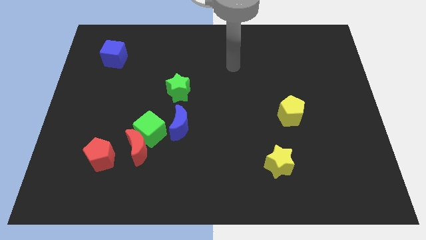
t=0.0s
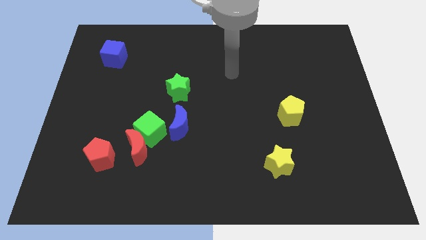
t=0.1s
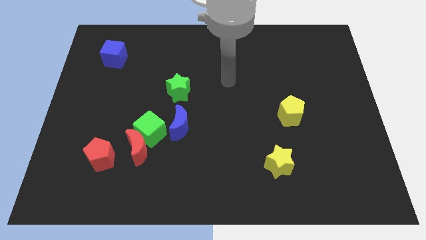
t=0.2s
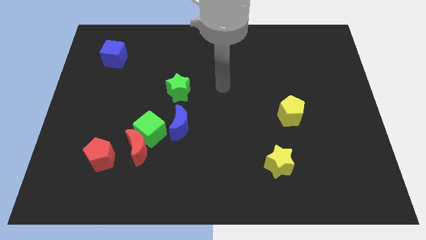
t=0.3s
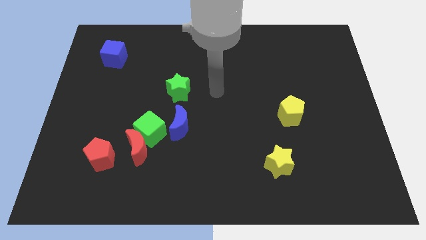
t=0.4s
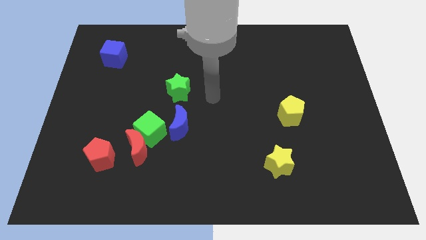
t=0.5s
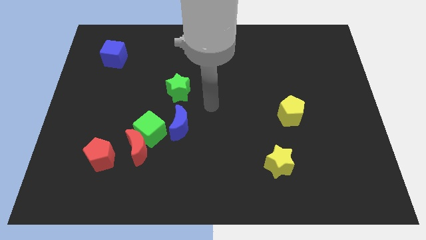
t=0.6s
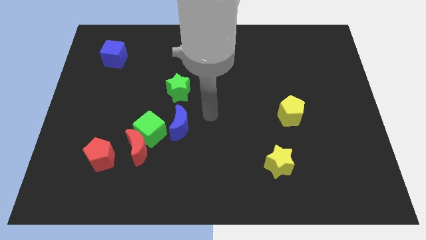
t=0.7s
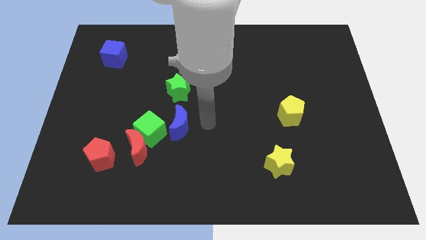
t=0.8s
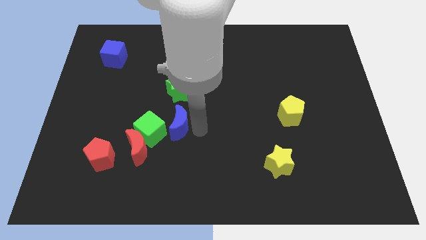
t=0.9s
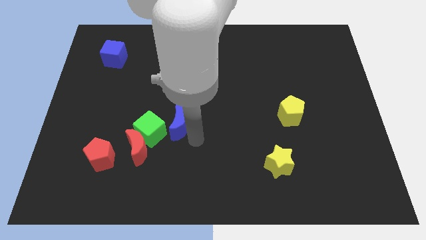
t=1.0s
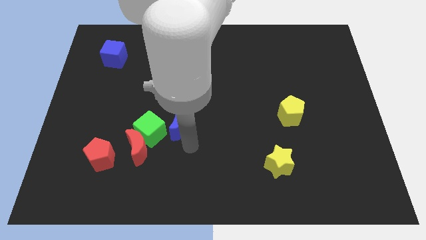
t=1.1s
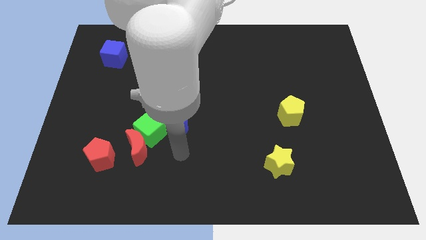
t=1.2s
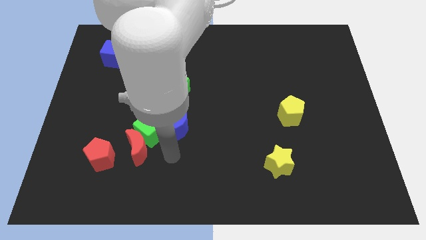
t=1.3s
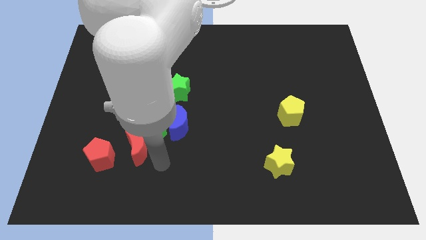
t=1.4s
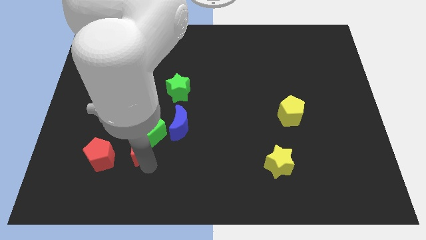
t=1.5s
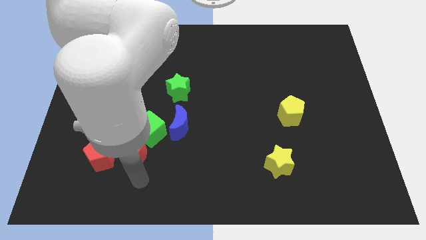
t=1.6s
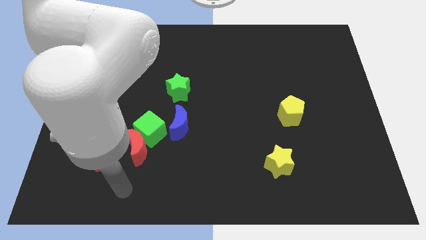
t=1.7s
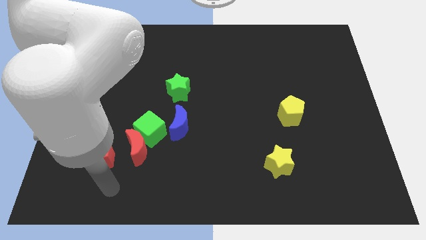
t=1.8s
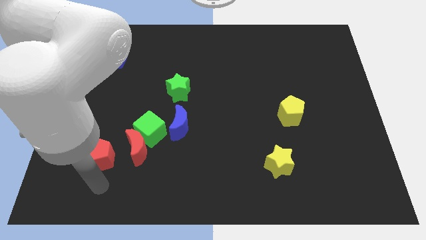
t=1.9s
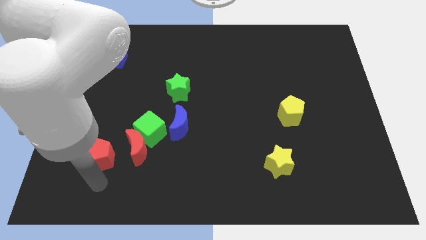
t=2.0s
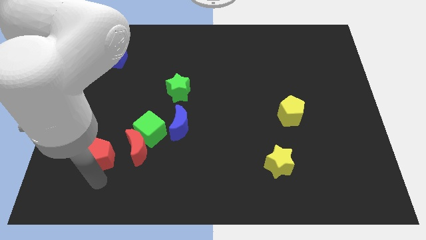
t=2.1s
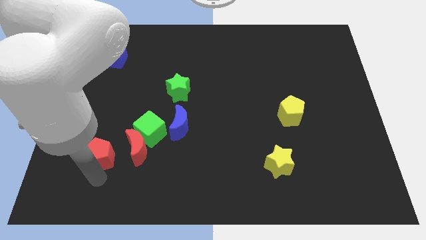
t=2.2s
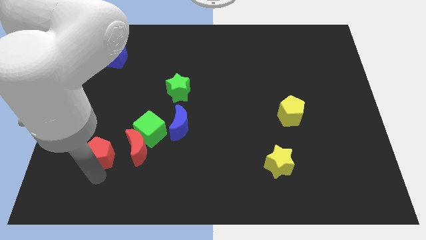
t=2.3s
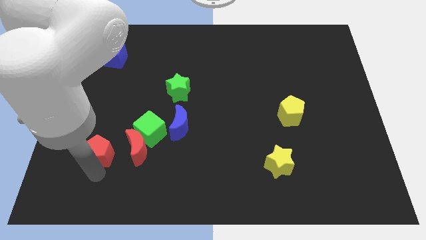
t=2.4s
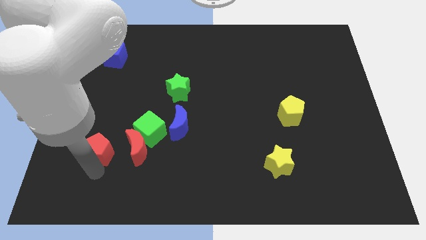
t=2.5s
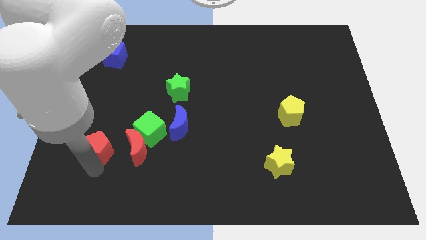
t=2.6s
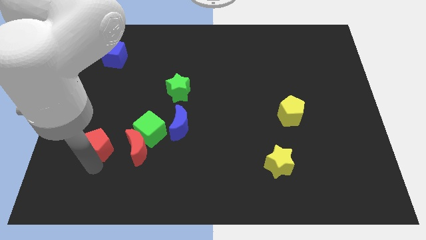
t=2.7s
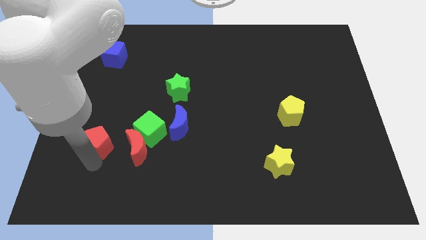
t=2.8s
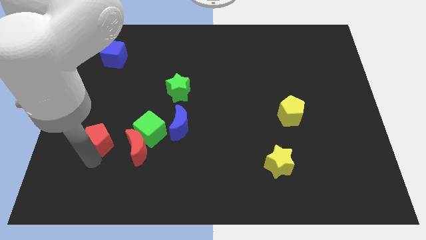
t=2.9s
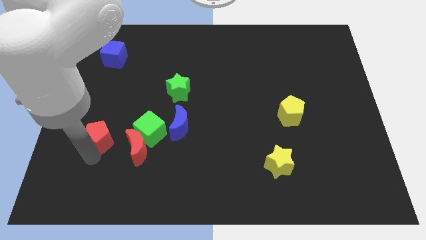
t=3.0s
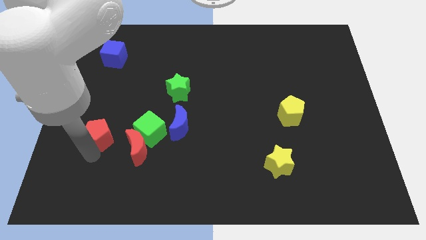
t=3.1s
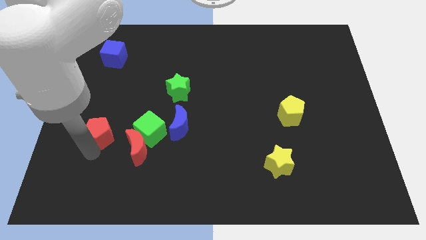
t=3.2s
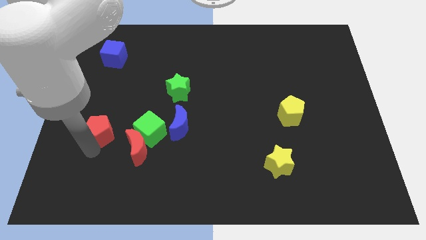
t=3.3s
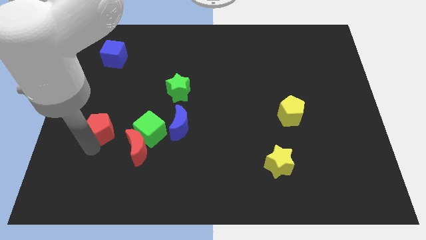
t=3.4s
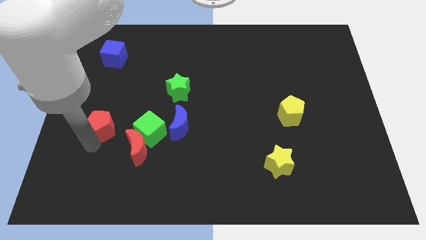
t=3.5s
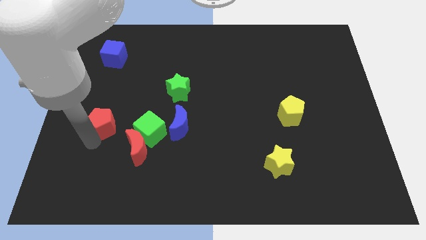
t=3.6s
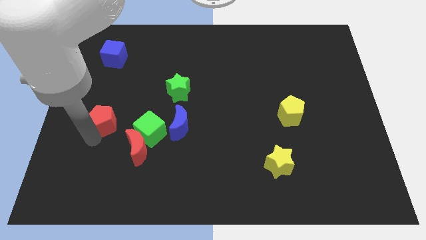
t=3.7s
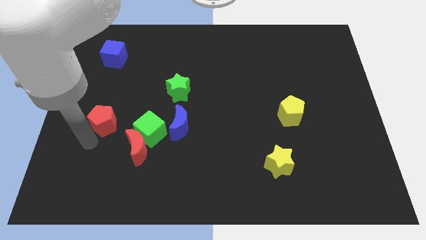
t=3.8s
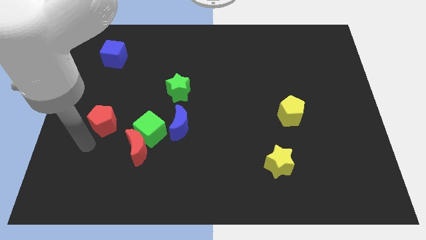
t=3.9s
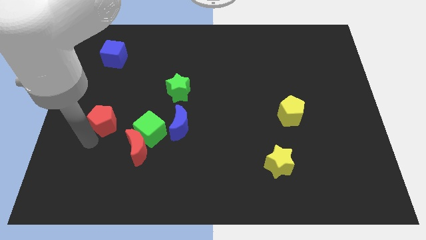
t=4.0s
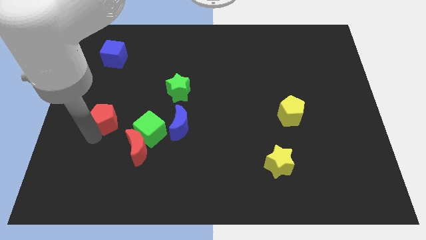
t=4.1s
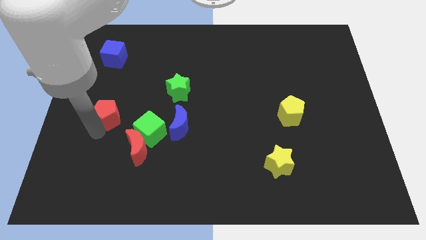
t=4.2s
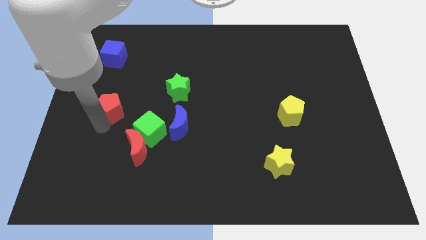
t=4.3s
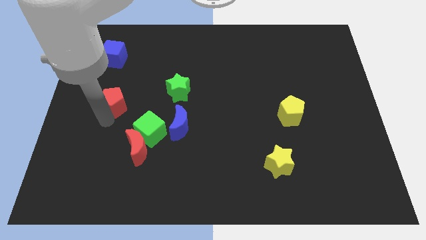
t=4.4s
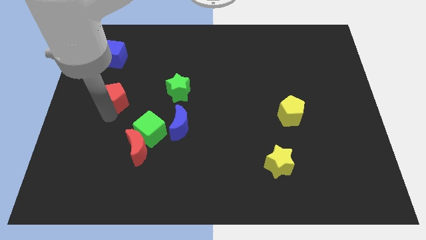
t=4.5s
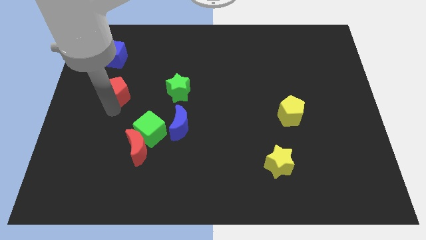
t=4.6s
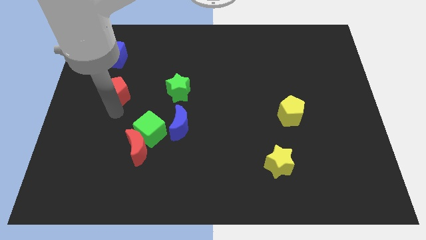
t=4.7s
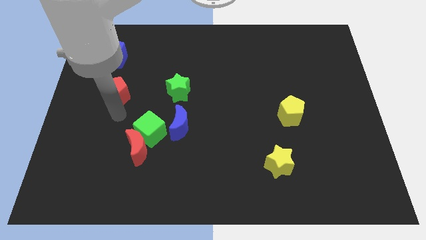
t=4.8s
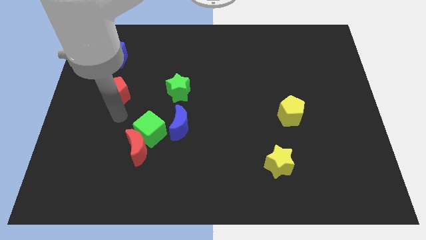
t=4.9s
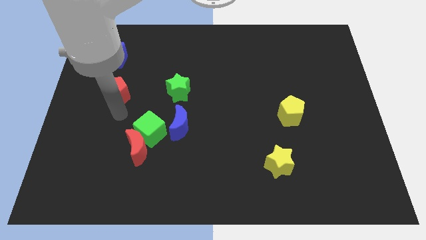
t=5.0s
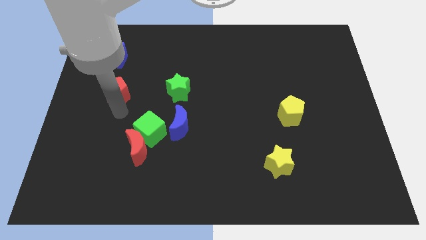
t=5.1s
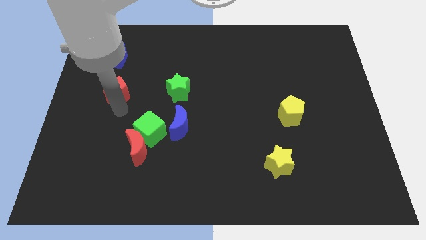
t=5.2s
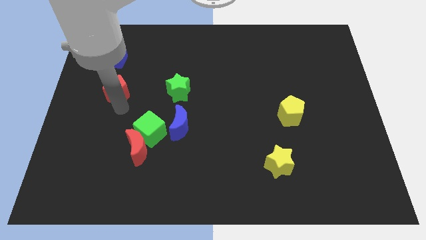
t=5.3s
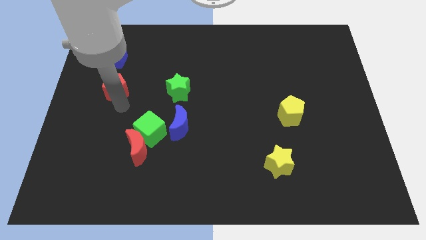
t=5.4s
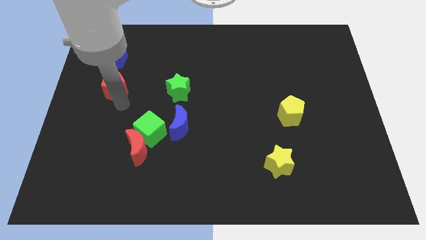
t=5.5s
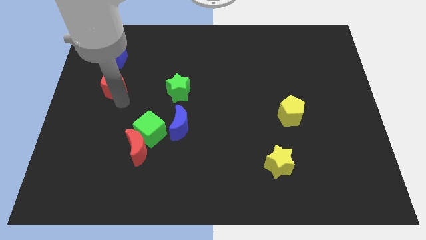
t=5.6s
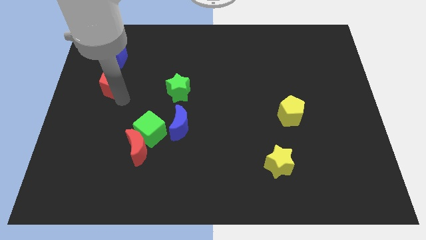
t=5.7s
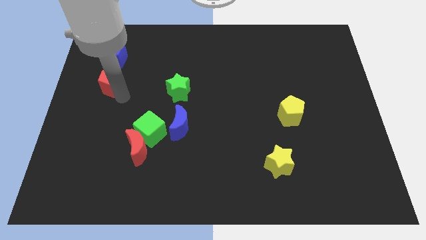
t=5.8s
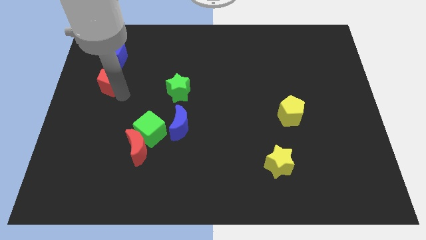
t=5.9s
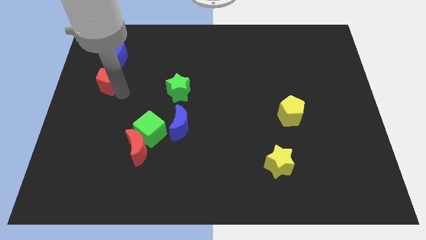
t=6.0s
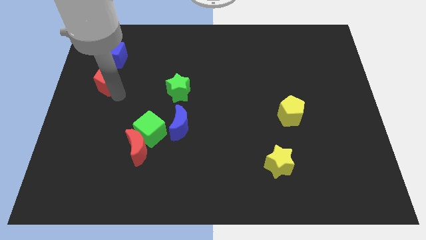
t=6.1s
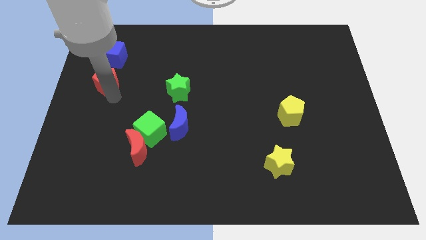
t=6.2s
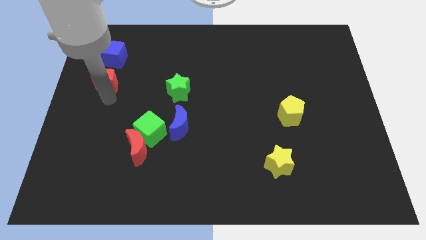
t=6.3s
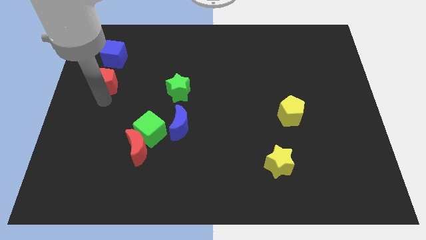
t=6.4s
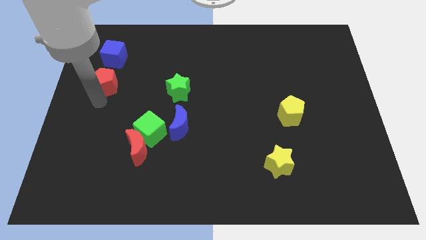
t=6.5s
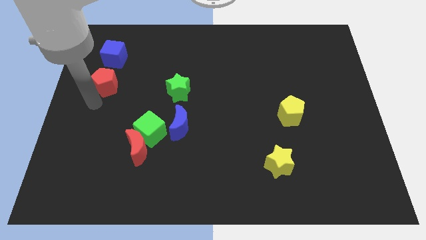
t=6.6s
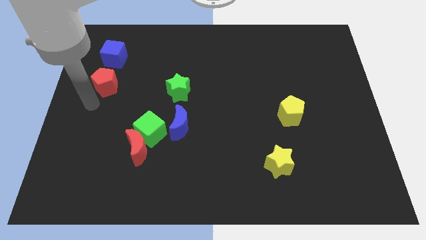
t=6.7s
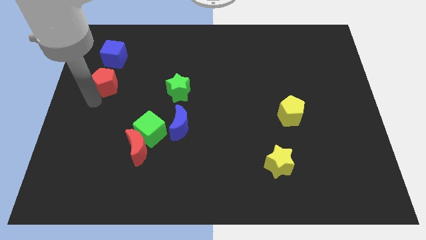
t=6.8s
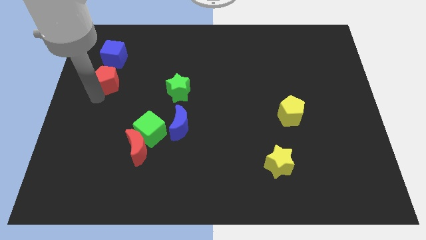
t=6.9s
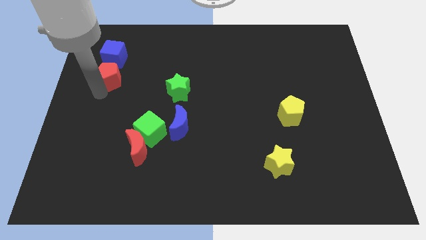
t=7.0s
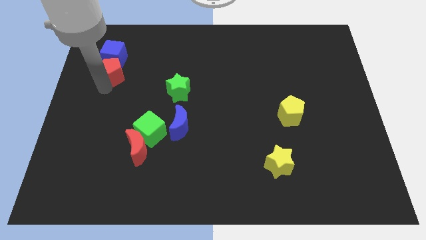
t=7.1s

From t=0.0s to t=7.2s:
slide the red pentagon towards the blue cube
